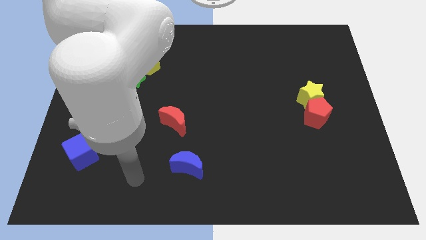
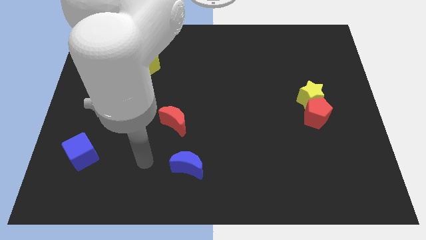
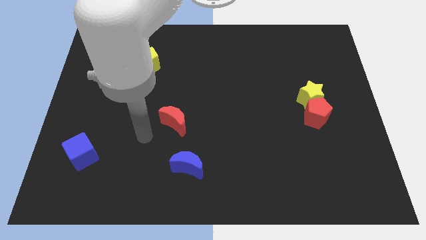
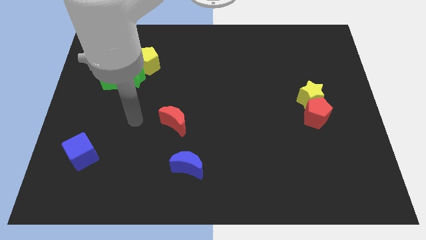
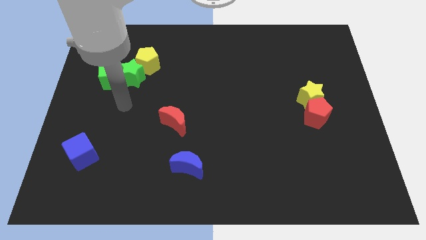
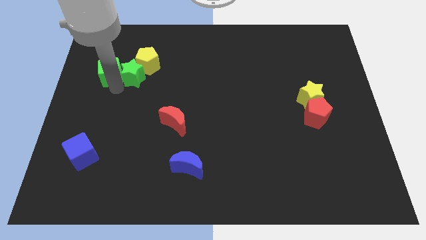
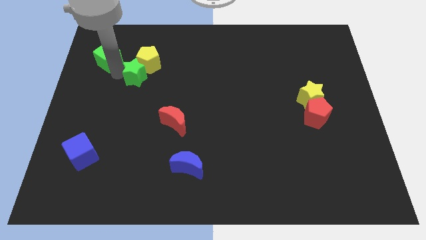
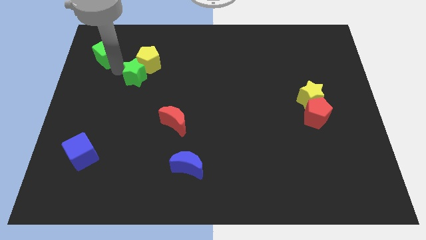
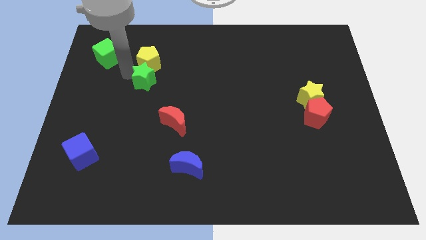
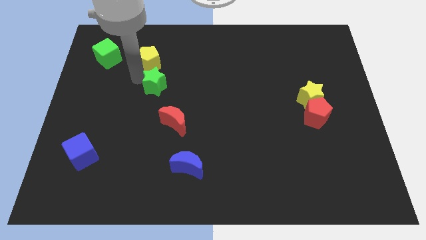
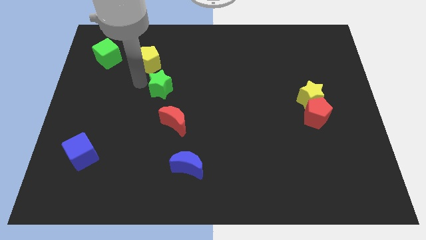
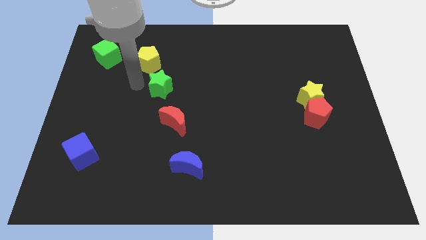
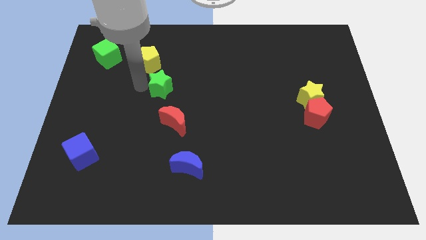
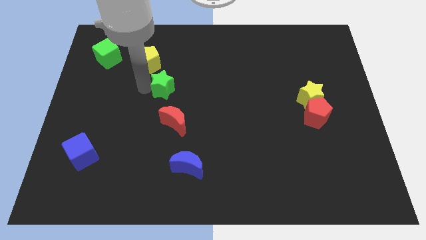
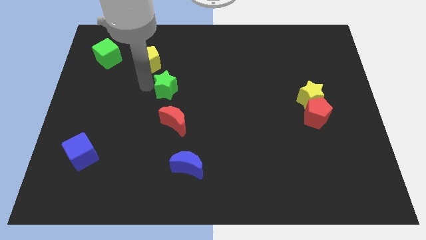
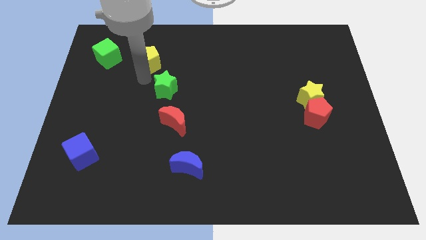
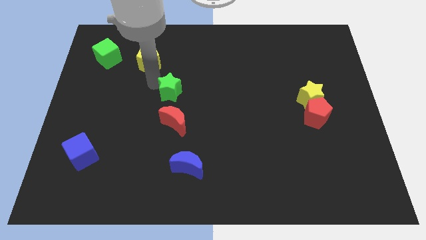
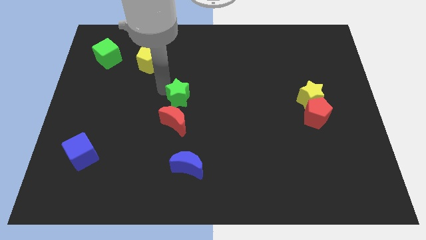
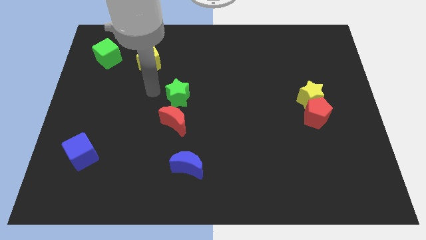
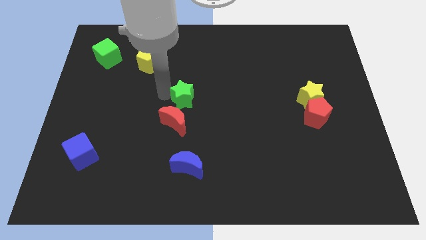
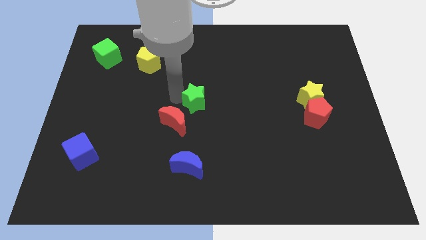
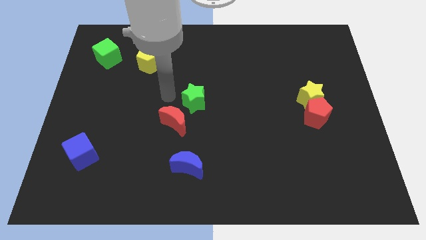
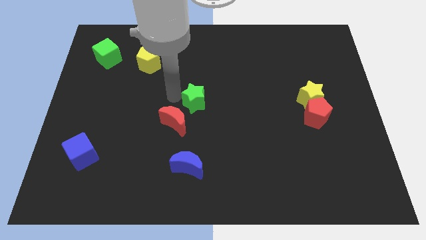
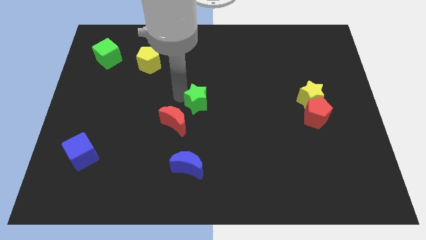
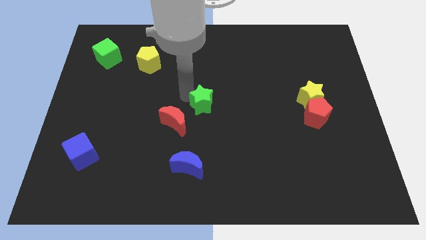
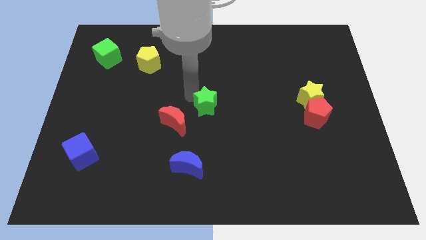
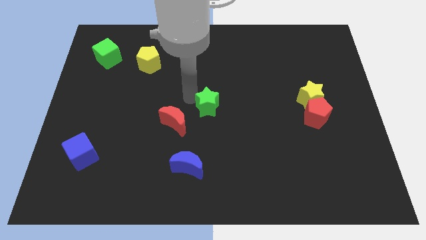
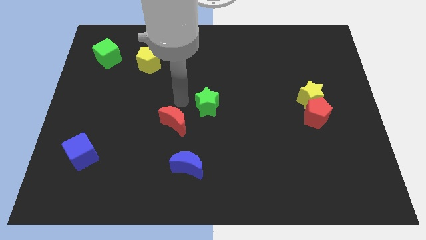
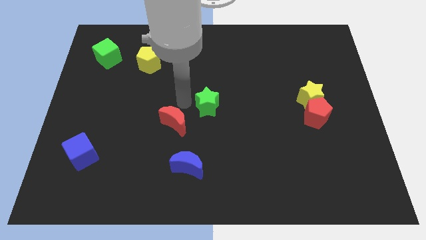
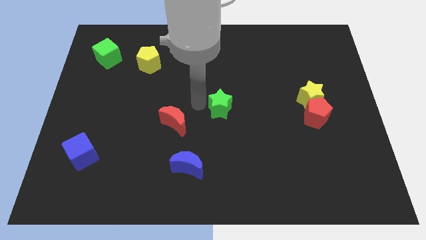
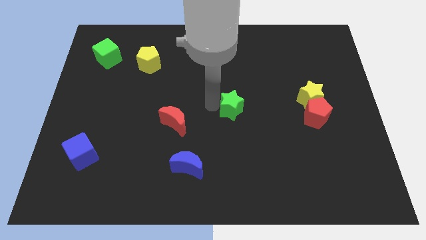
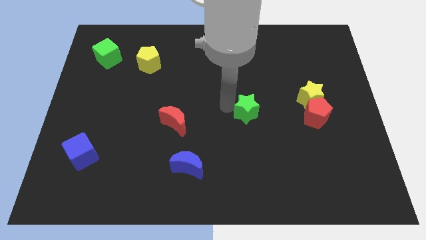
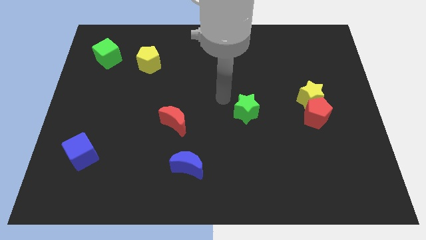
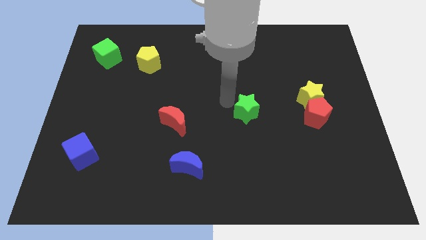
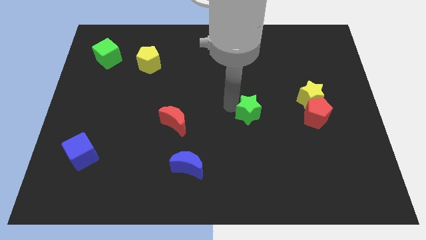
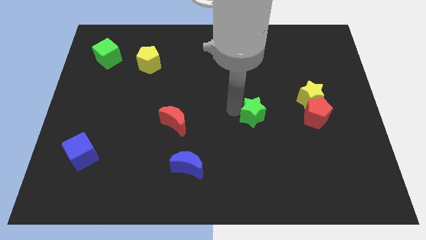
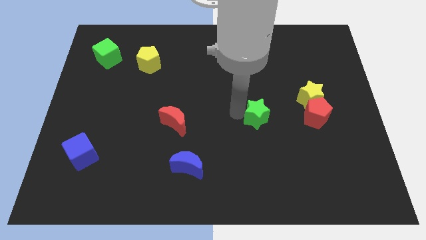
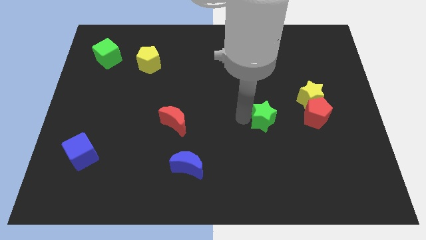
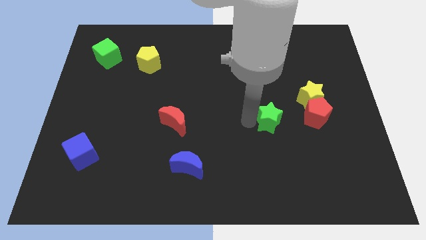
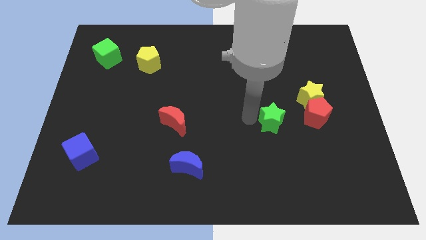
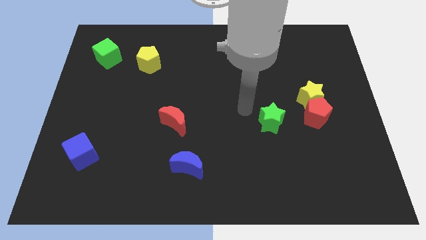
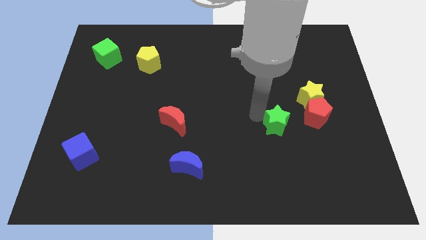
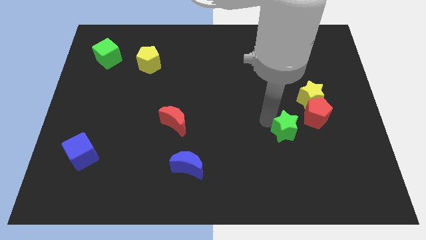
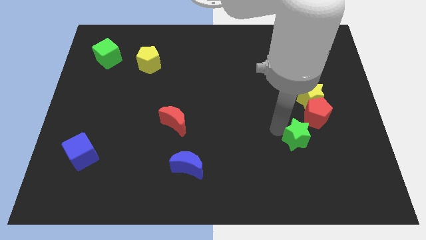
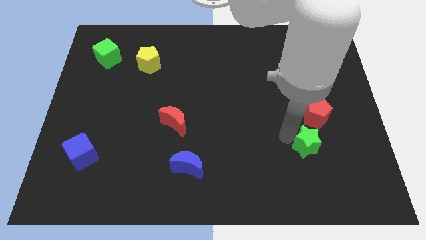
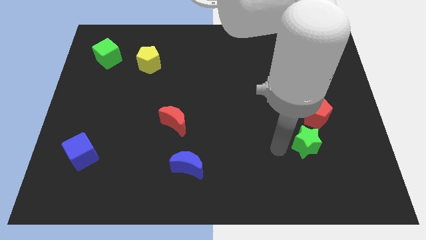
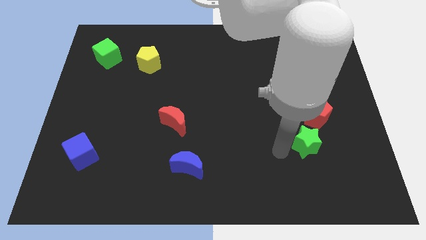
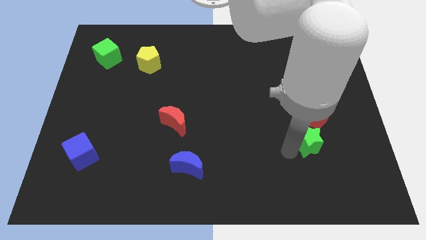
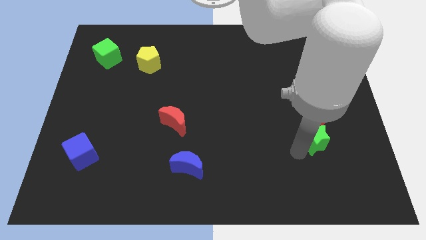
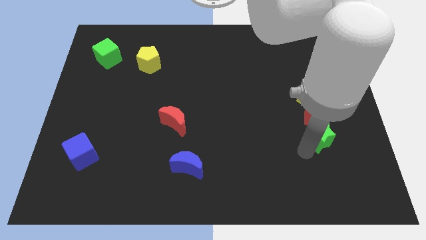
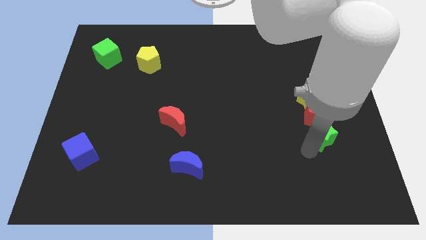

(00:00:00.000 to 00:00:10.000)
slide the green star to the bottom right side of the red pentagon

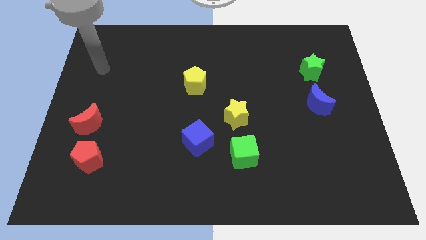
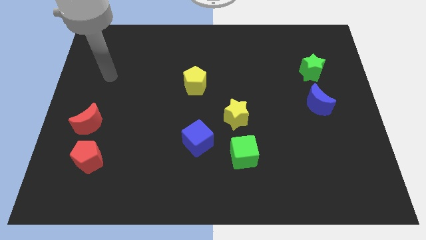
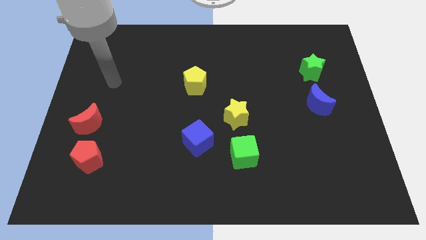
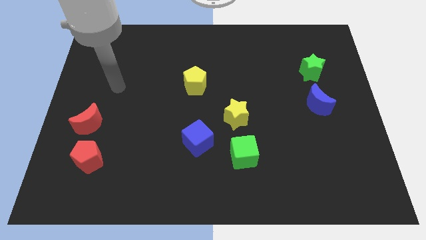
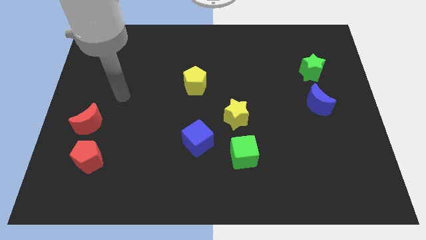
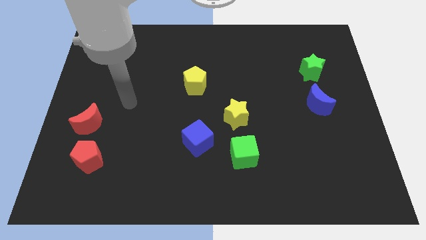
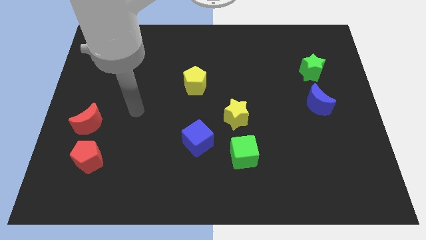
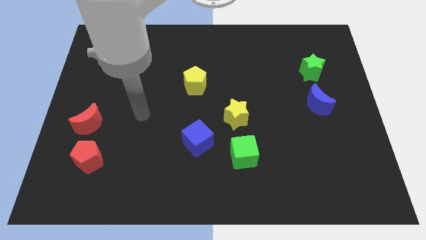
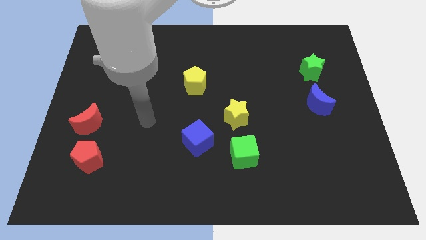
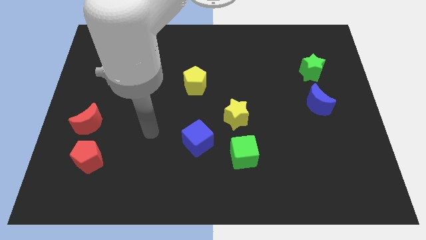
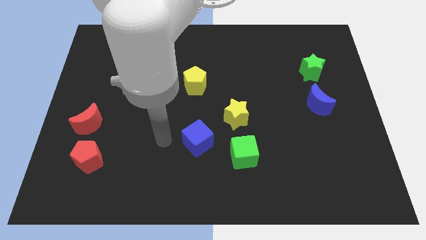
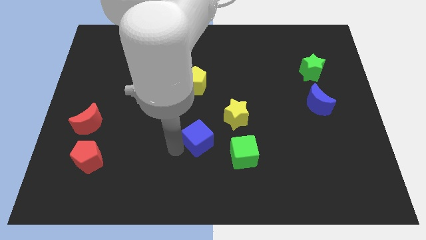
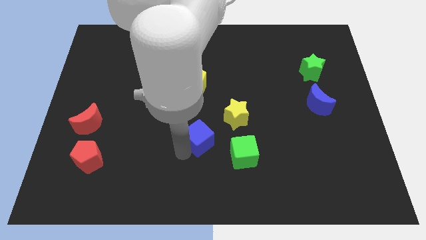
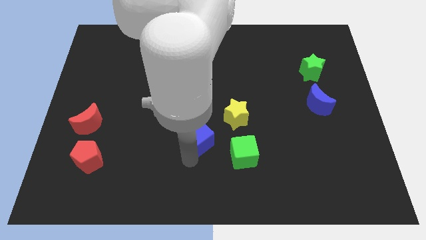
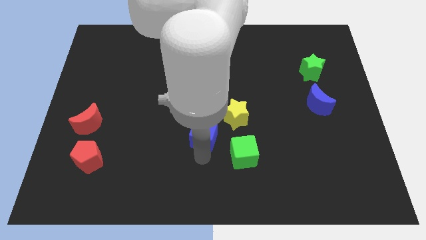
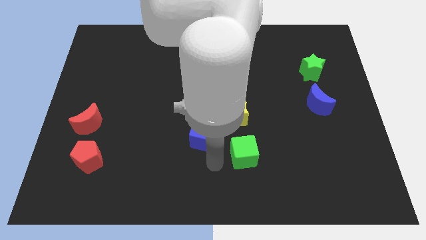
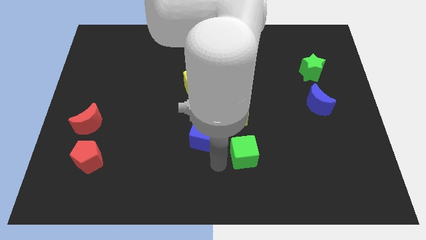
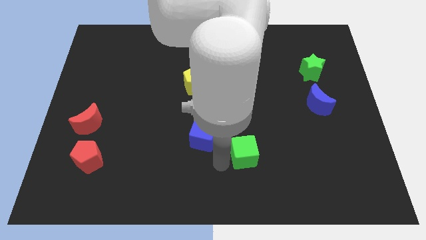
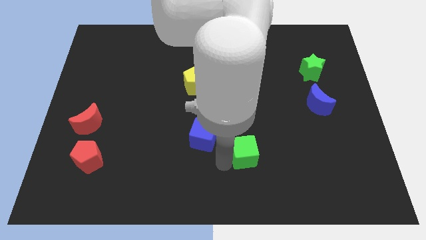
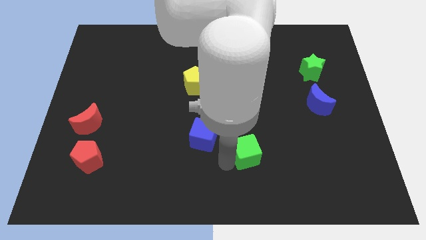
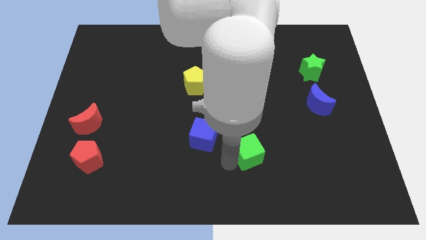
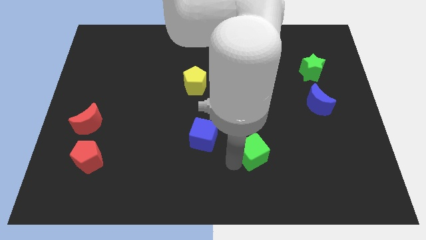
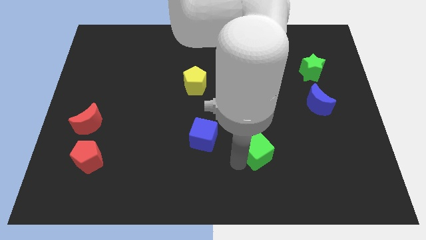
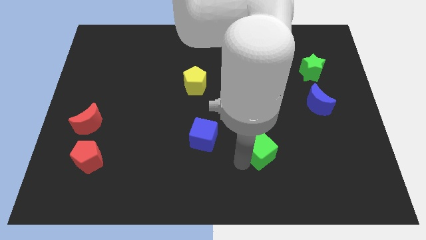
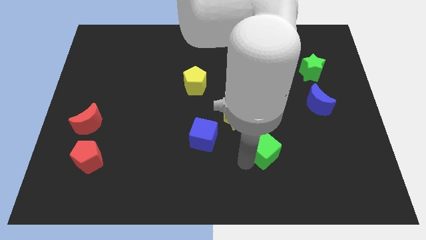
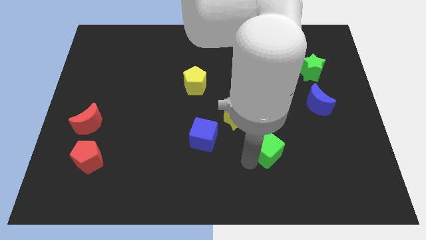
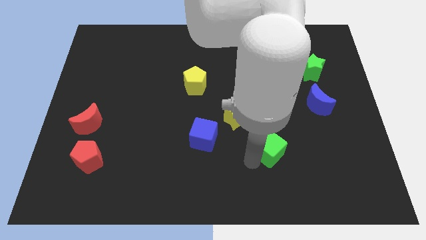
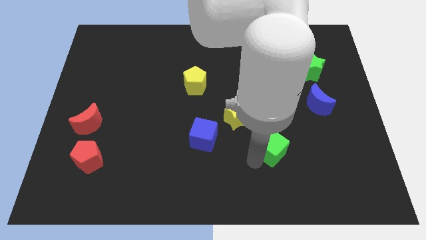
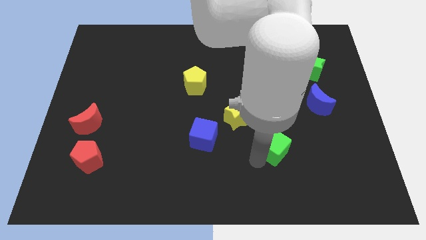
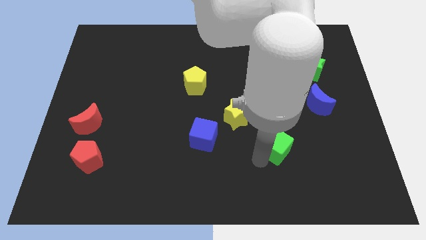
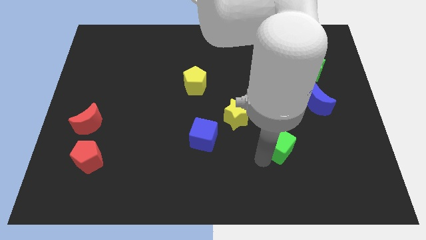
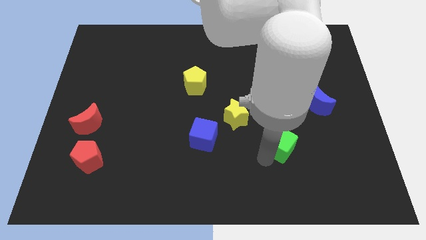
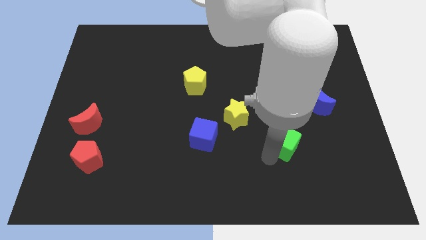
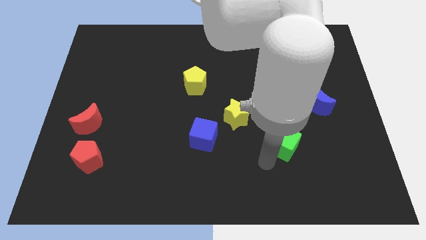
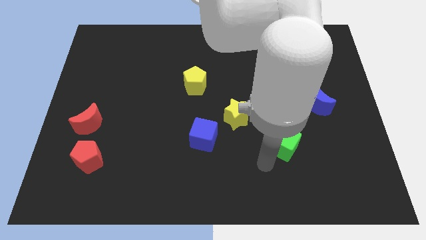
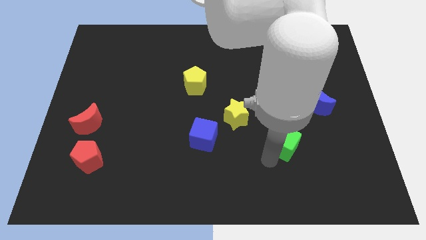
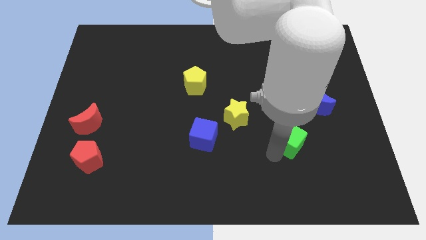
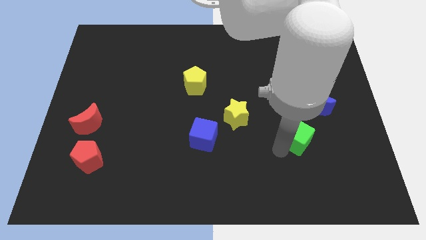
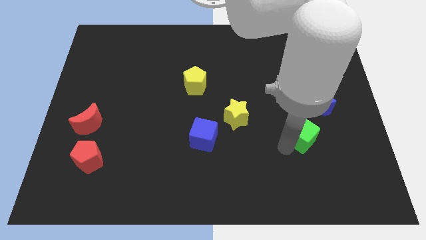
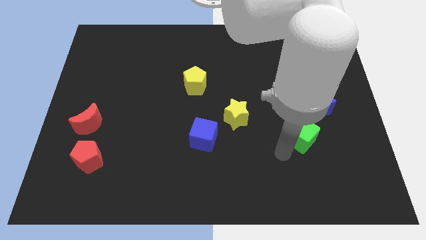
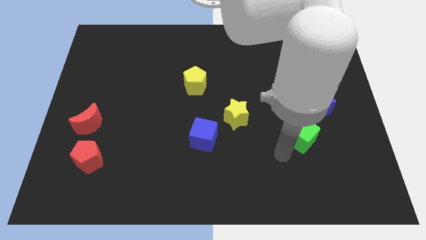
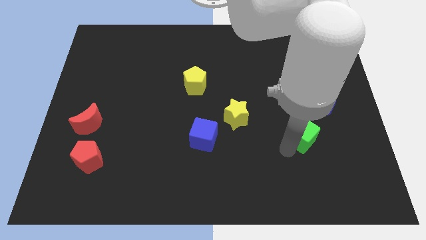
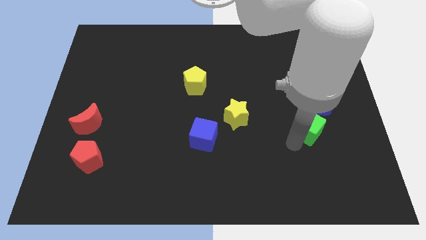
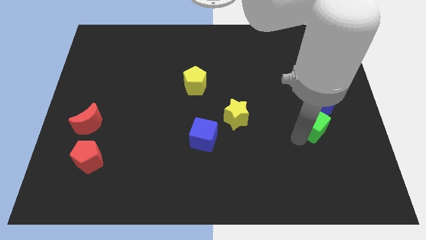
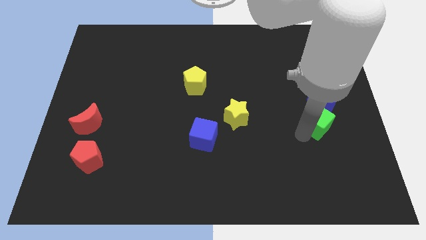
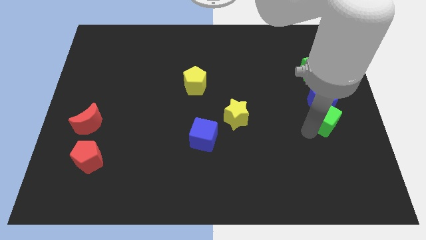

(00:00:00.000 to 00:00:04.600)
slide the green cube to the bottom of the green star
